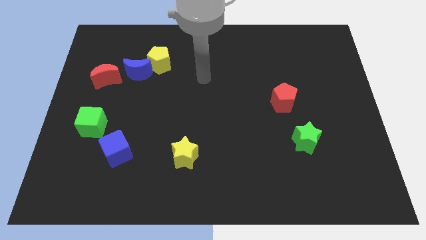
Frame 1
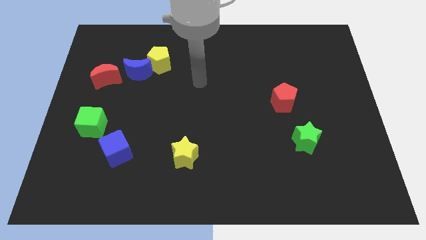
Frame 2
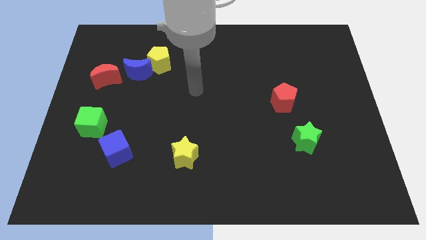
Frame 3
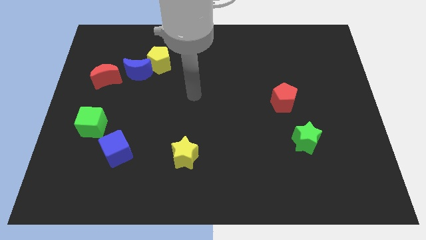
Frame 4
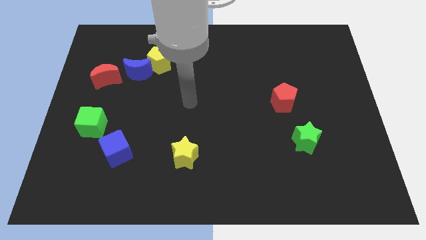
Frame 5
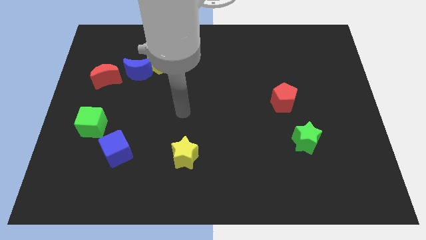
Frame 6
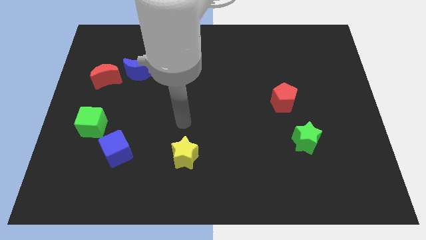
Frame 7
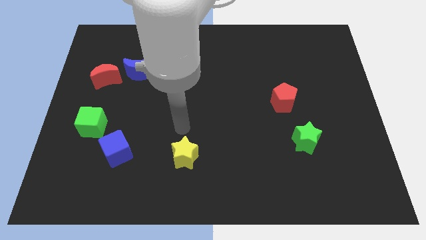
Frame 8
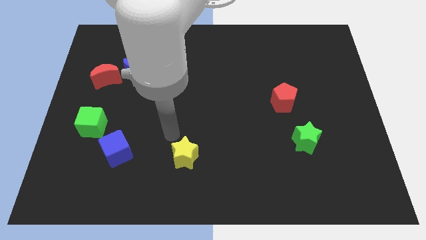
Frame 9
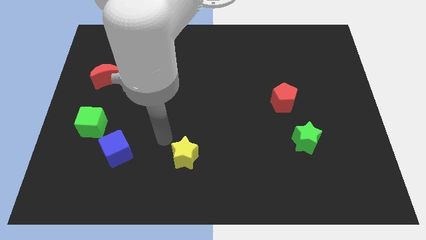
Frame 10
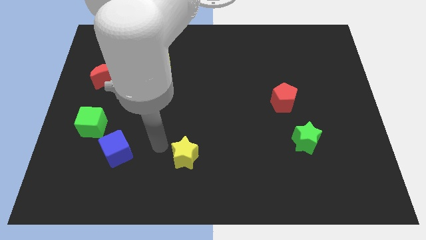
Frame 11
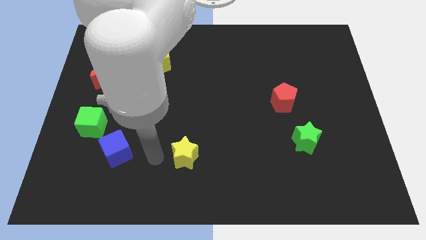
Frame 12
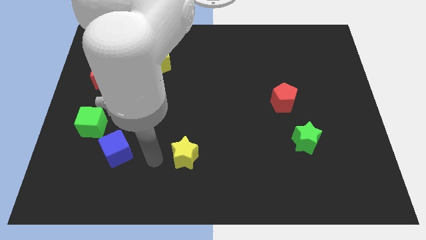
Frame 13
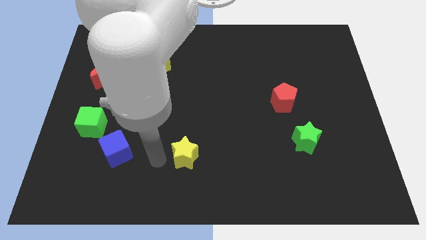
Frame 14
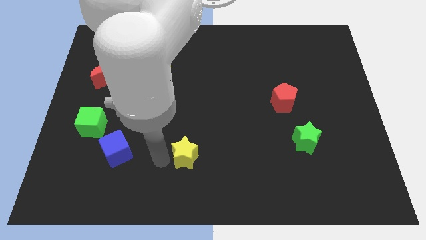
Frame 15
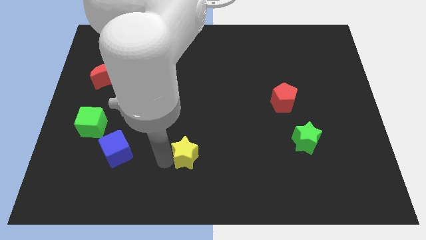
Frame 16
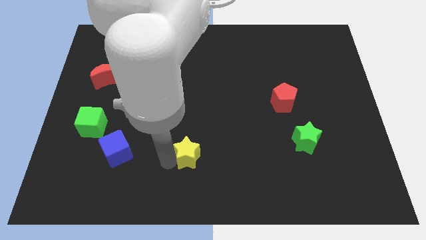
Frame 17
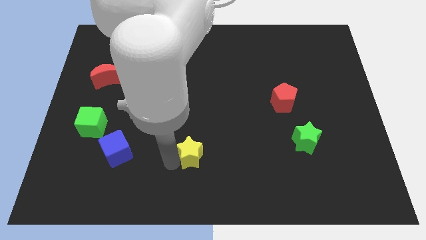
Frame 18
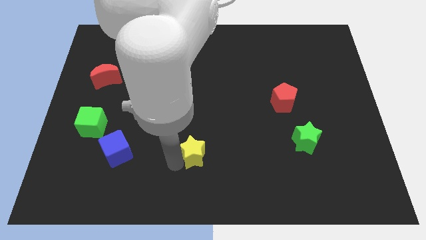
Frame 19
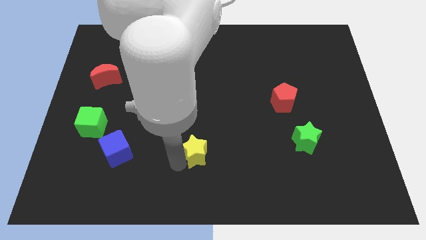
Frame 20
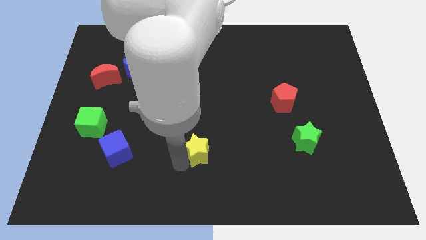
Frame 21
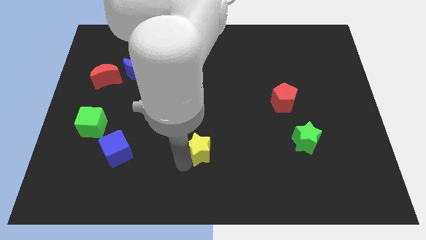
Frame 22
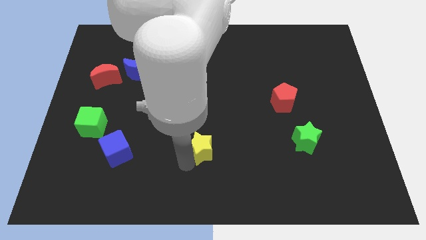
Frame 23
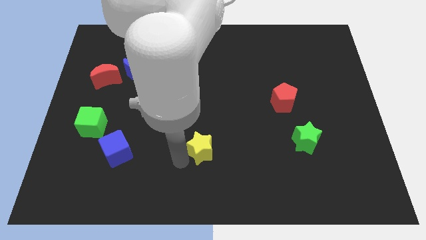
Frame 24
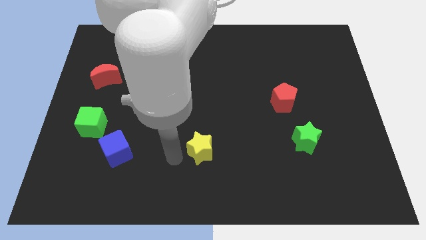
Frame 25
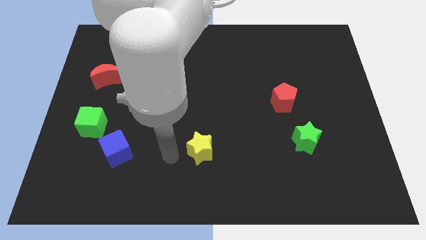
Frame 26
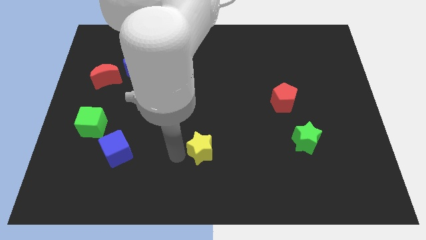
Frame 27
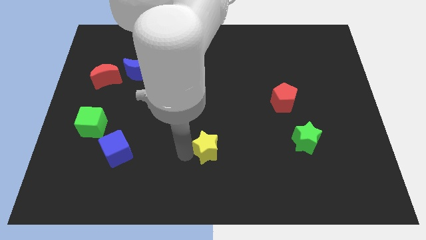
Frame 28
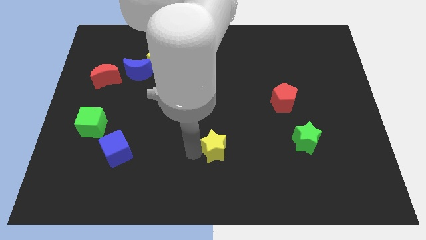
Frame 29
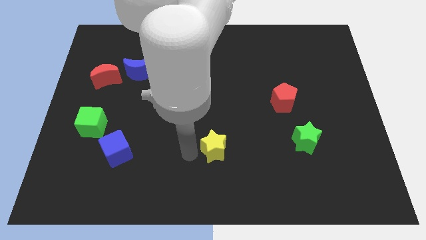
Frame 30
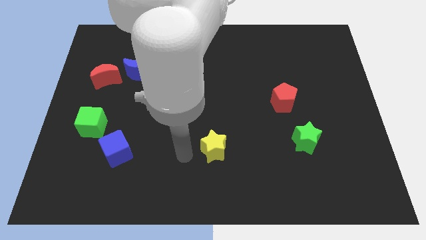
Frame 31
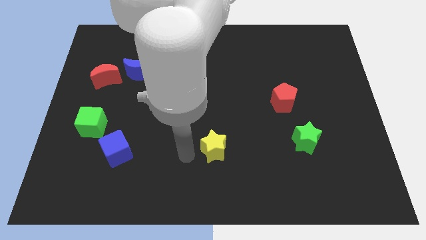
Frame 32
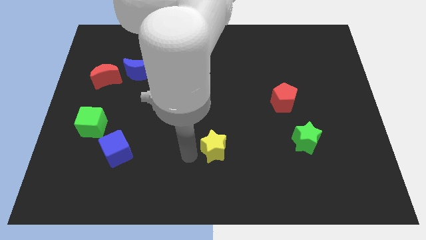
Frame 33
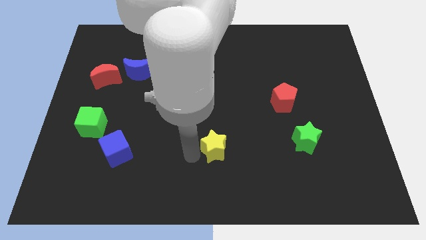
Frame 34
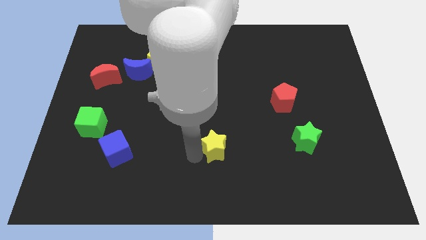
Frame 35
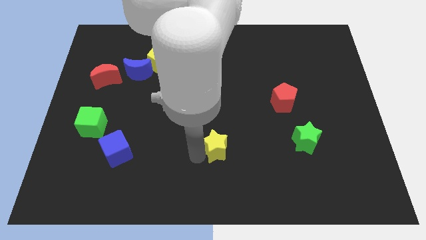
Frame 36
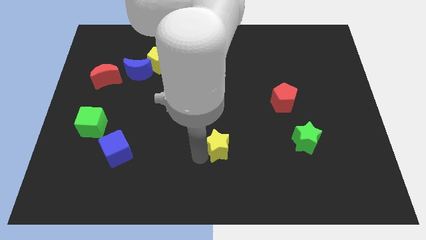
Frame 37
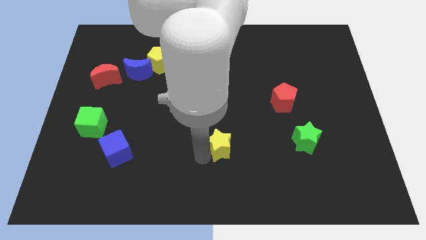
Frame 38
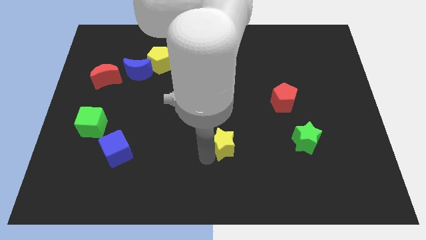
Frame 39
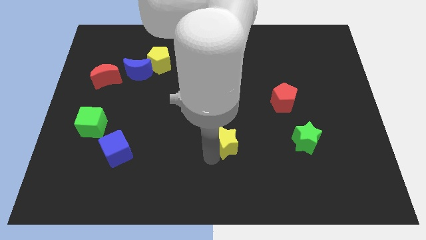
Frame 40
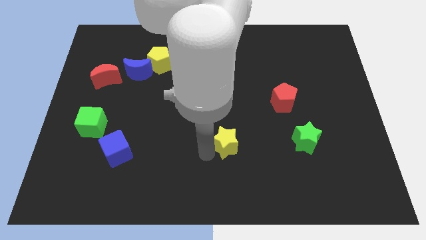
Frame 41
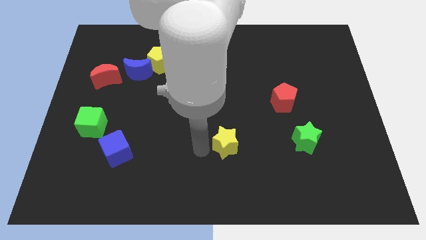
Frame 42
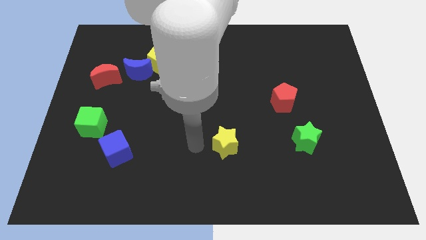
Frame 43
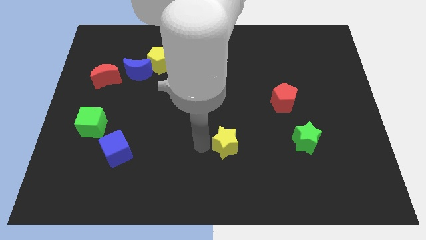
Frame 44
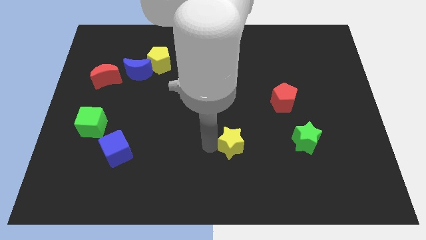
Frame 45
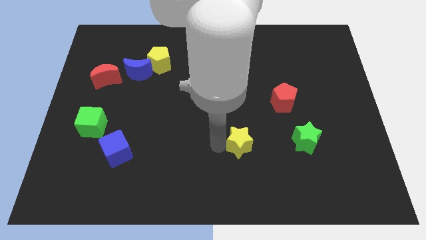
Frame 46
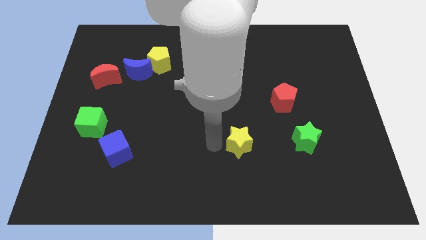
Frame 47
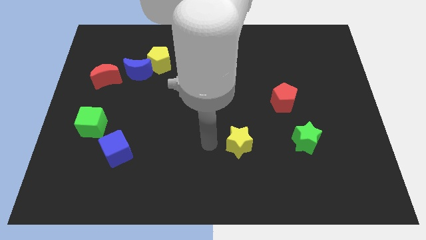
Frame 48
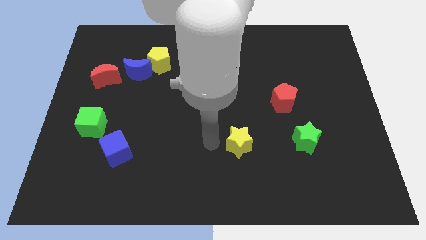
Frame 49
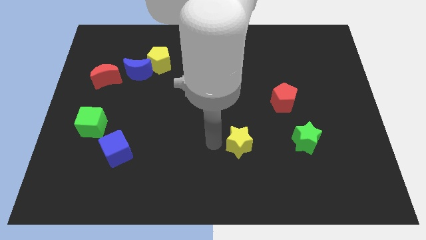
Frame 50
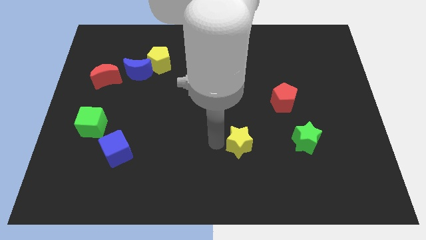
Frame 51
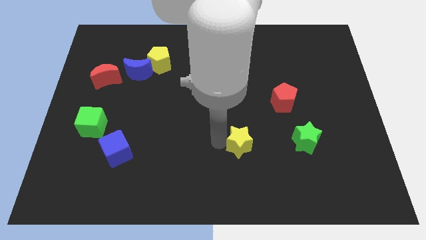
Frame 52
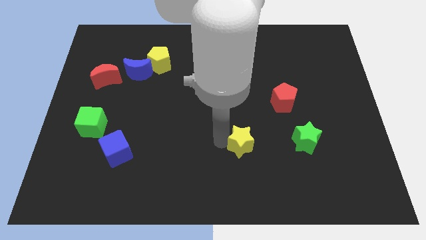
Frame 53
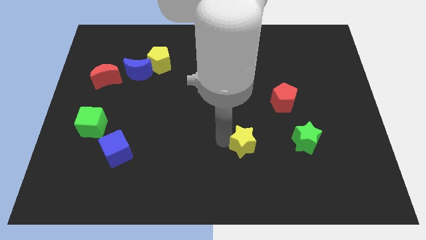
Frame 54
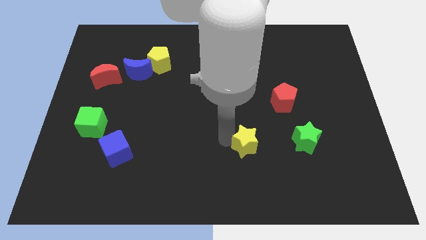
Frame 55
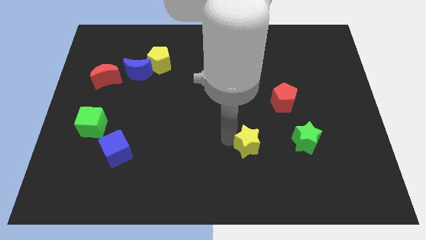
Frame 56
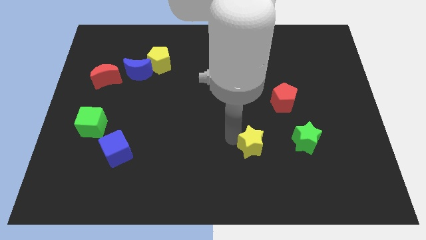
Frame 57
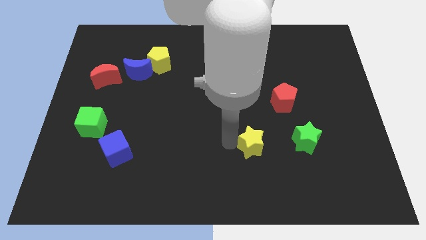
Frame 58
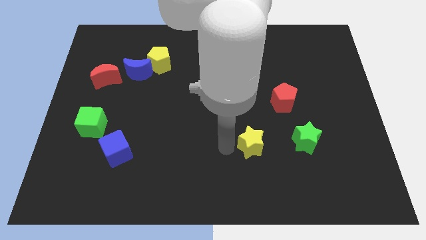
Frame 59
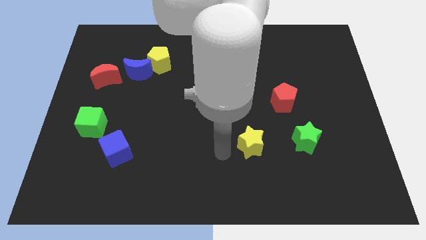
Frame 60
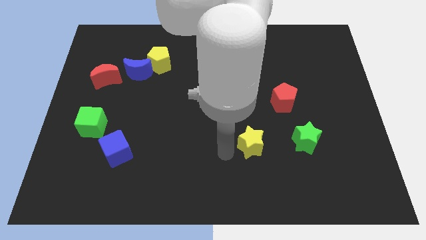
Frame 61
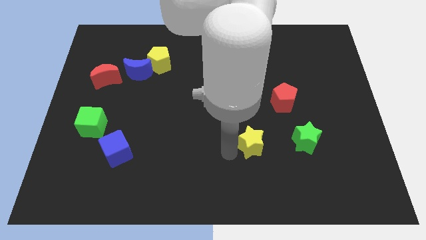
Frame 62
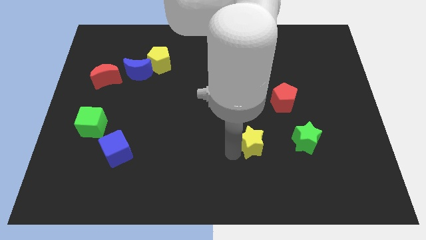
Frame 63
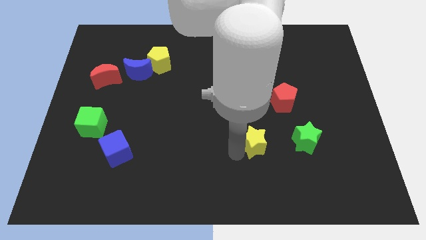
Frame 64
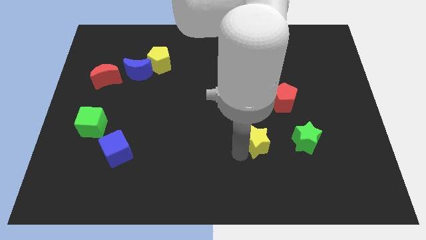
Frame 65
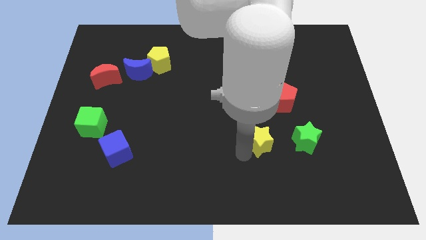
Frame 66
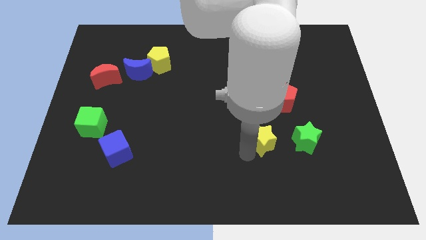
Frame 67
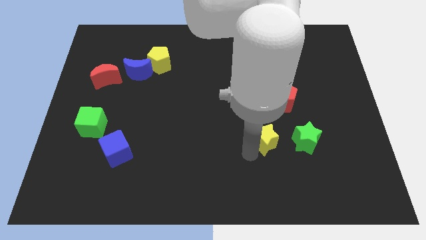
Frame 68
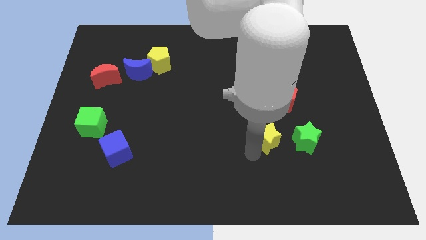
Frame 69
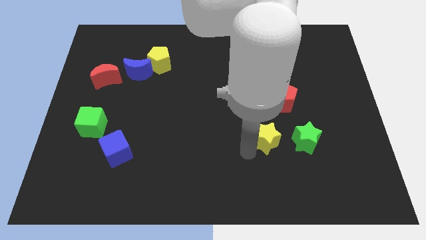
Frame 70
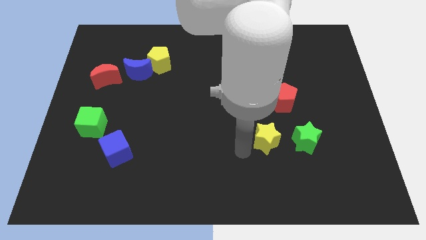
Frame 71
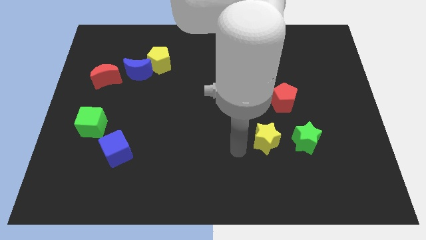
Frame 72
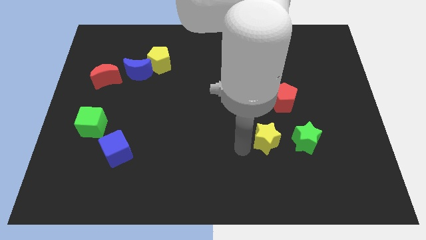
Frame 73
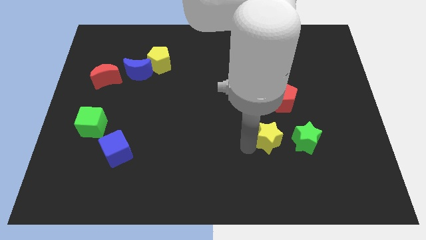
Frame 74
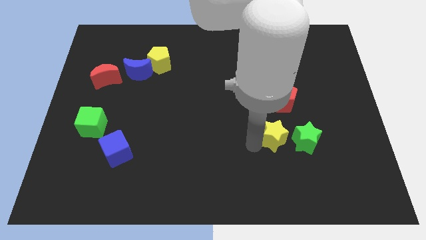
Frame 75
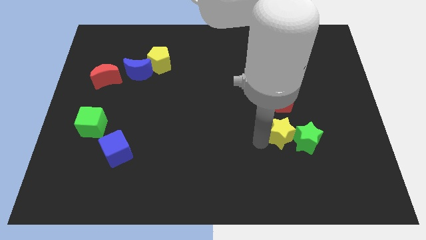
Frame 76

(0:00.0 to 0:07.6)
push the yellow star towards the green star

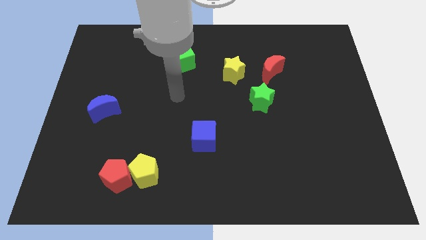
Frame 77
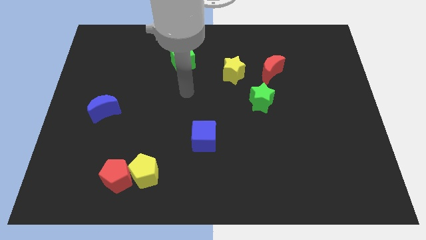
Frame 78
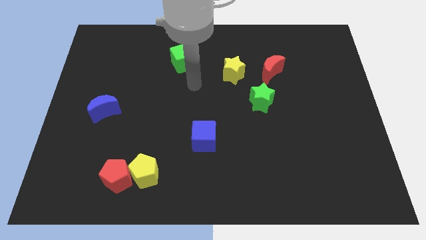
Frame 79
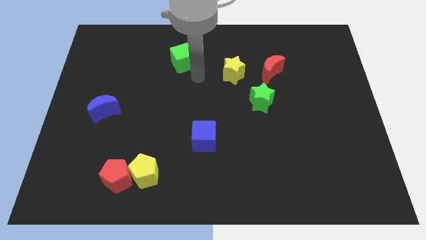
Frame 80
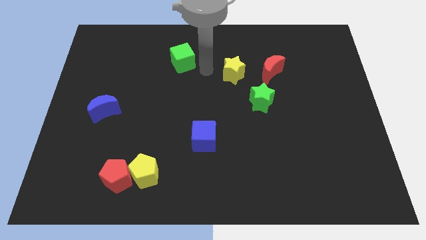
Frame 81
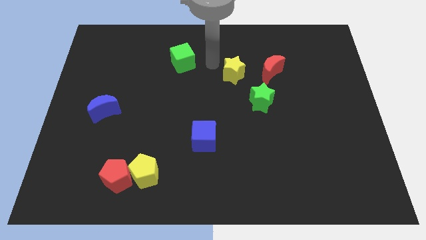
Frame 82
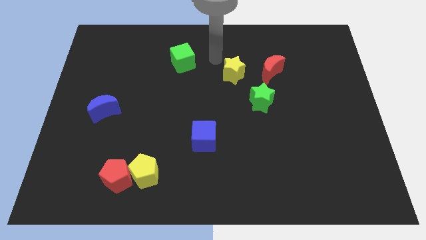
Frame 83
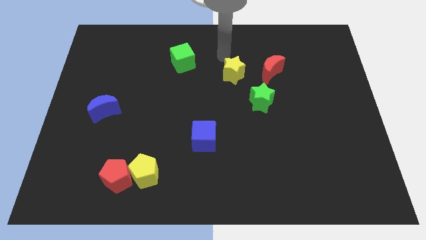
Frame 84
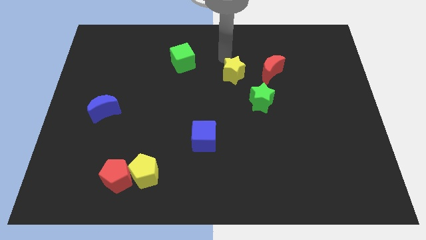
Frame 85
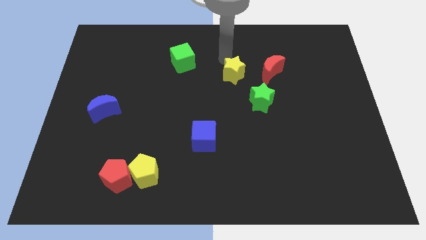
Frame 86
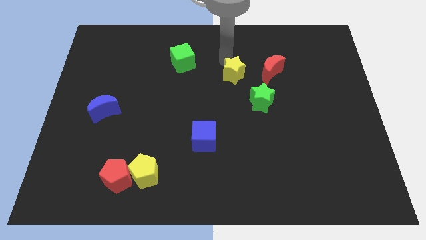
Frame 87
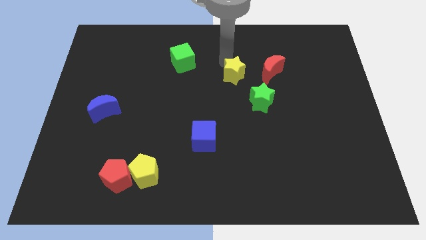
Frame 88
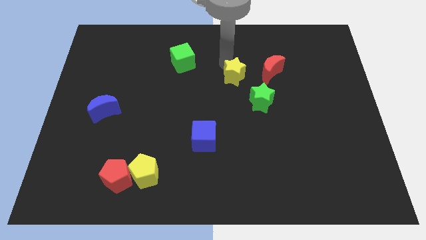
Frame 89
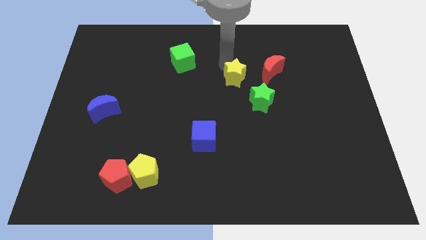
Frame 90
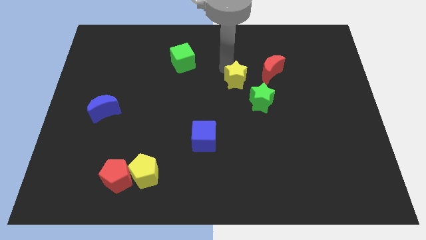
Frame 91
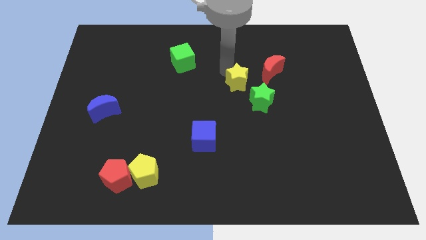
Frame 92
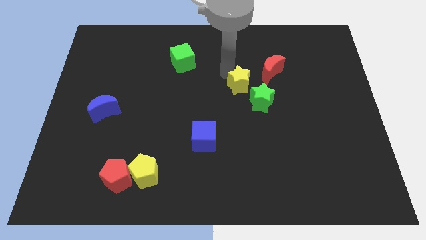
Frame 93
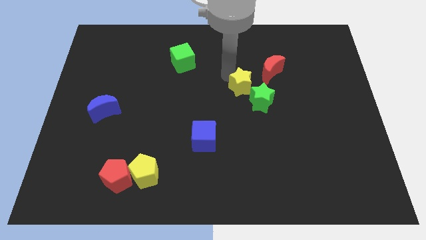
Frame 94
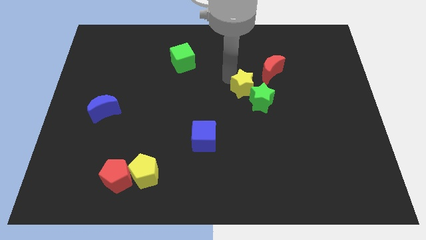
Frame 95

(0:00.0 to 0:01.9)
move the yellow star to the green star
